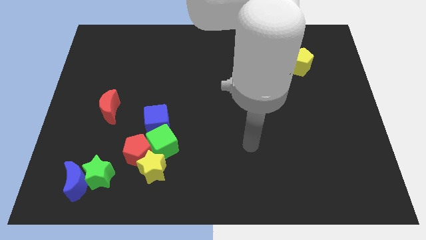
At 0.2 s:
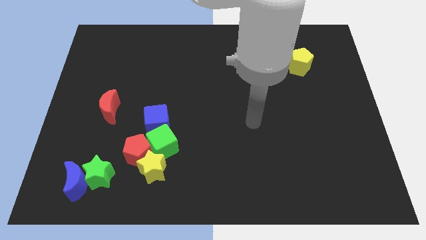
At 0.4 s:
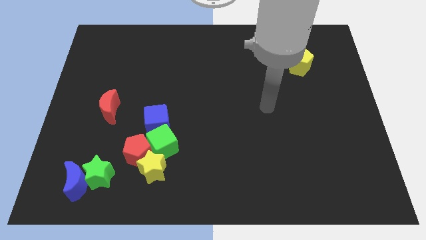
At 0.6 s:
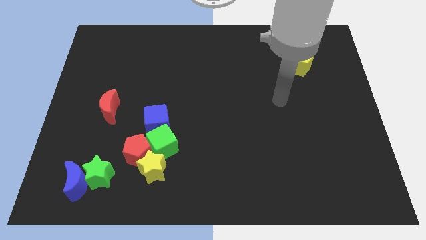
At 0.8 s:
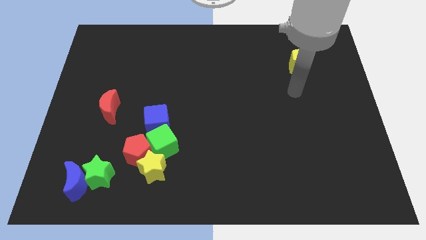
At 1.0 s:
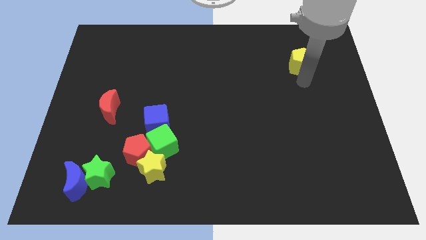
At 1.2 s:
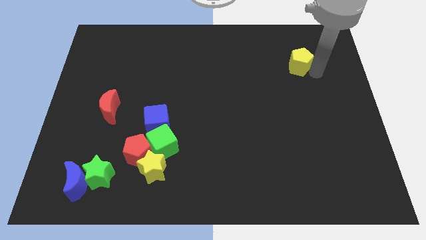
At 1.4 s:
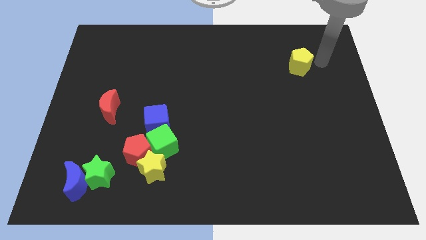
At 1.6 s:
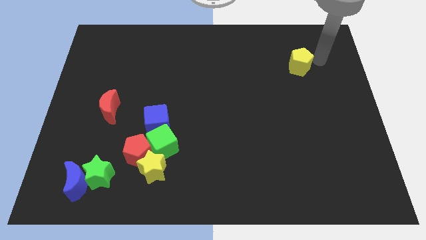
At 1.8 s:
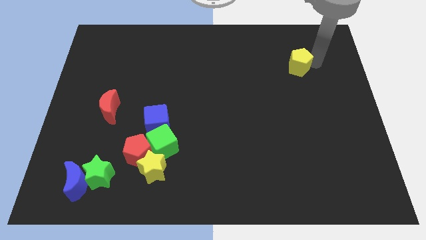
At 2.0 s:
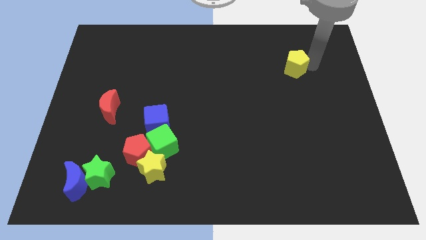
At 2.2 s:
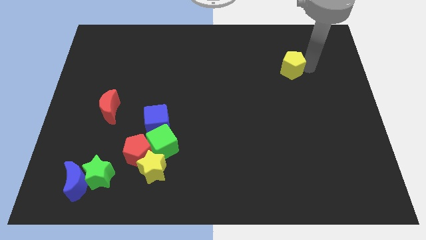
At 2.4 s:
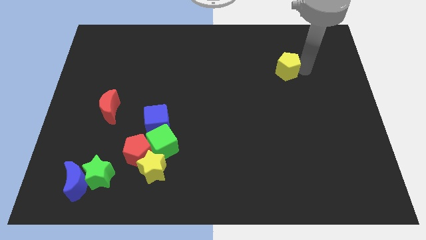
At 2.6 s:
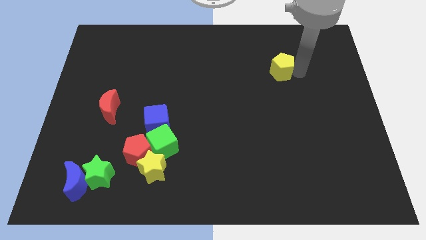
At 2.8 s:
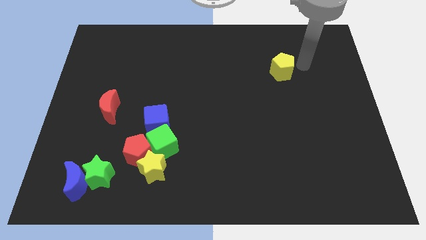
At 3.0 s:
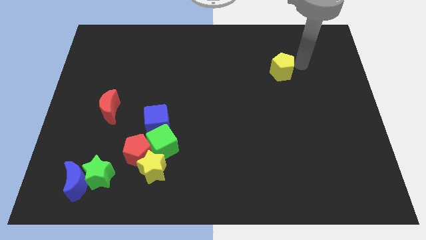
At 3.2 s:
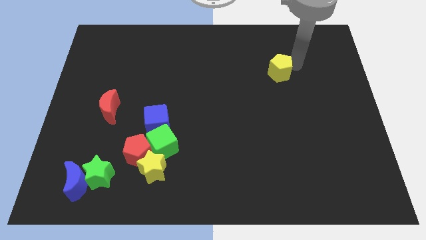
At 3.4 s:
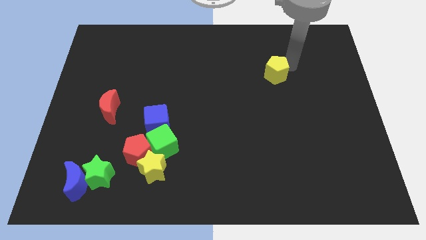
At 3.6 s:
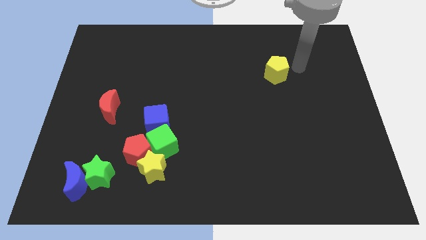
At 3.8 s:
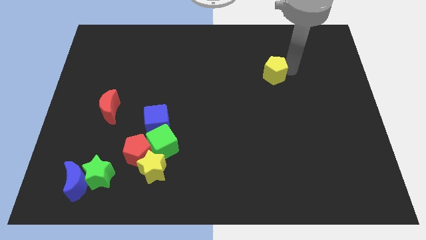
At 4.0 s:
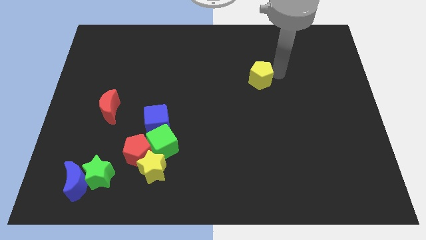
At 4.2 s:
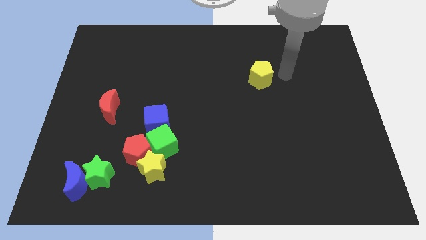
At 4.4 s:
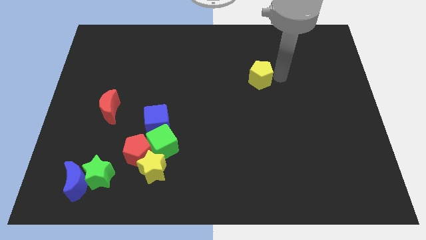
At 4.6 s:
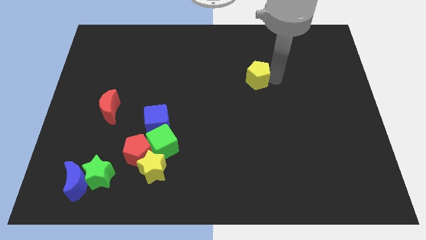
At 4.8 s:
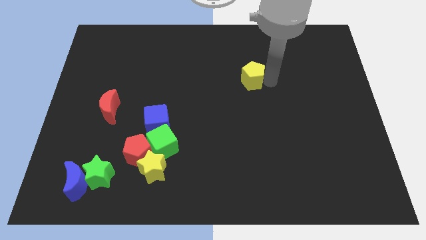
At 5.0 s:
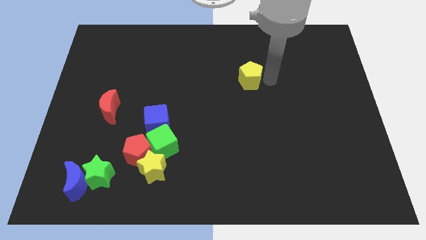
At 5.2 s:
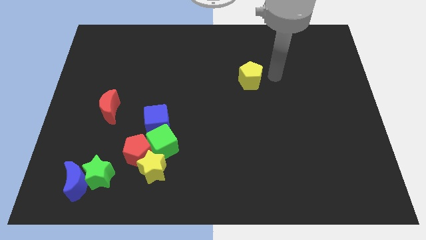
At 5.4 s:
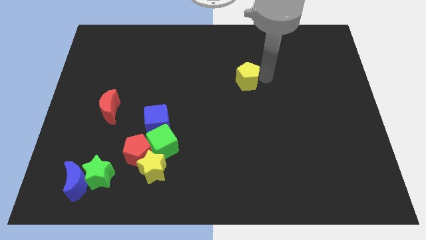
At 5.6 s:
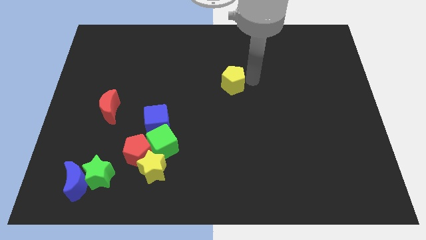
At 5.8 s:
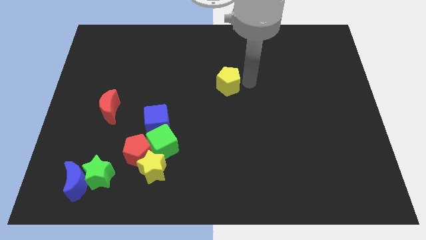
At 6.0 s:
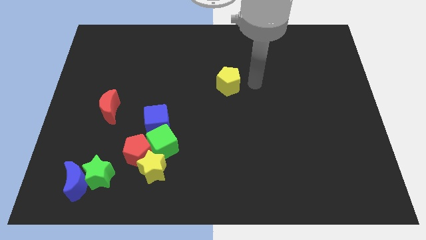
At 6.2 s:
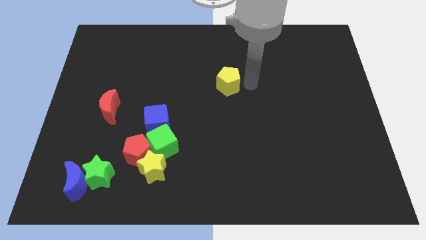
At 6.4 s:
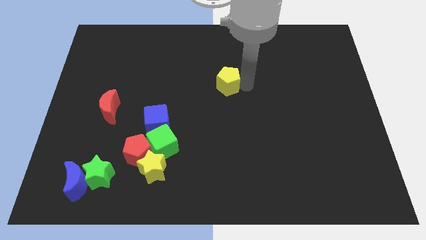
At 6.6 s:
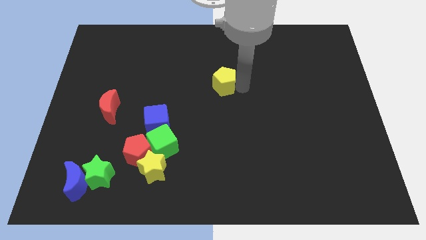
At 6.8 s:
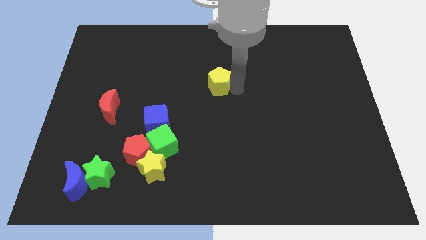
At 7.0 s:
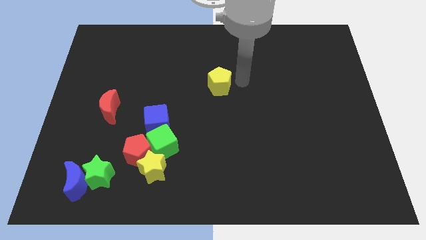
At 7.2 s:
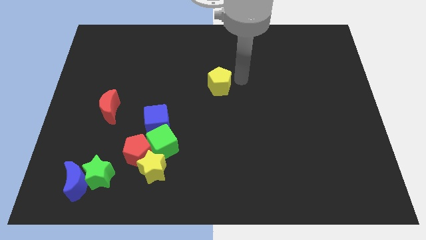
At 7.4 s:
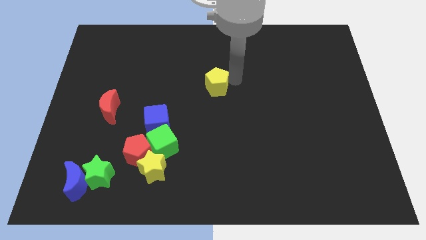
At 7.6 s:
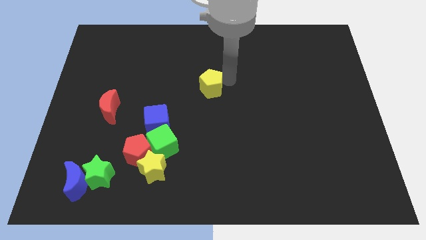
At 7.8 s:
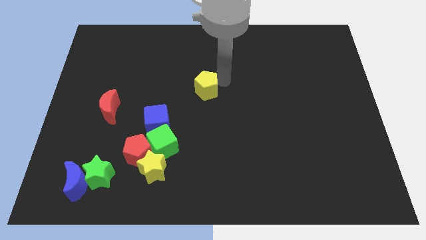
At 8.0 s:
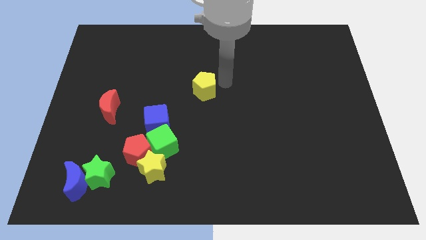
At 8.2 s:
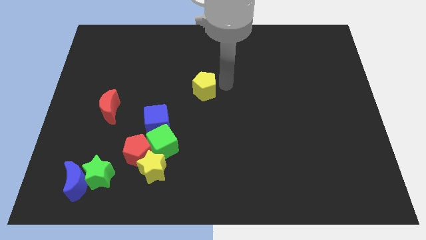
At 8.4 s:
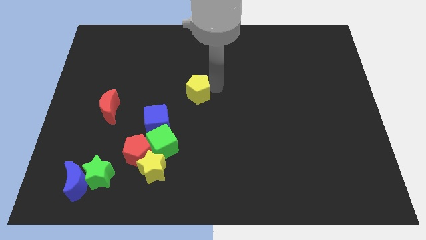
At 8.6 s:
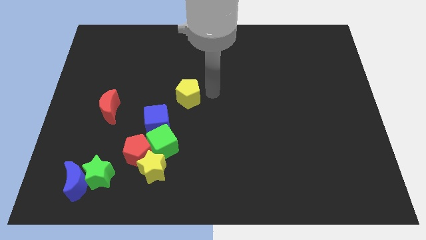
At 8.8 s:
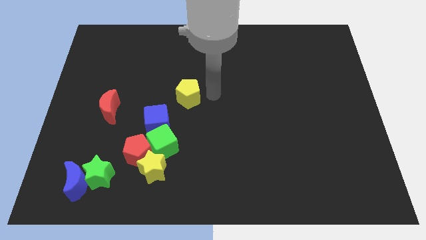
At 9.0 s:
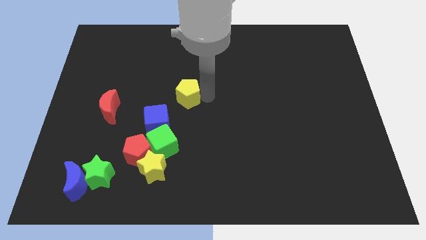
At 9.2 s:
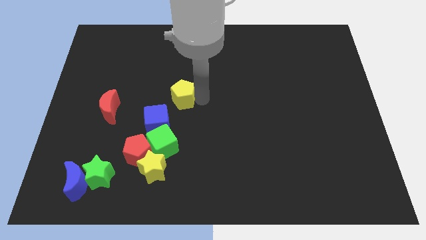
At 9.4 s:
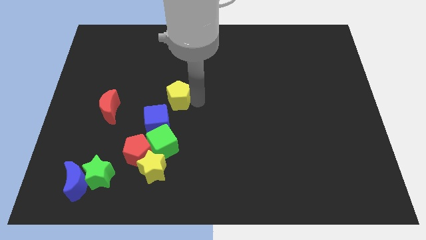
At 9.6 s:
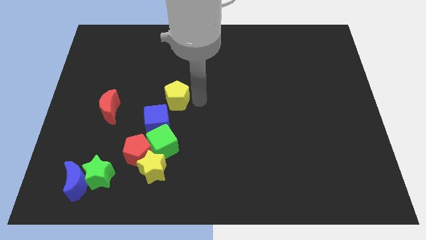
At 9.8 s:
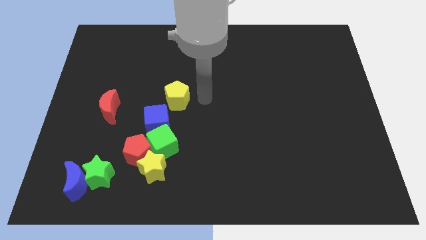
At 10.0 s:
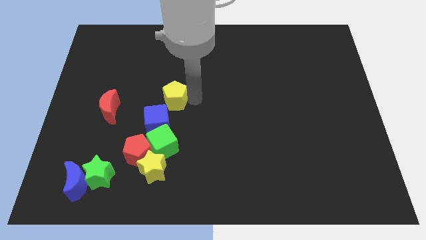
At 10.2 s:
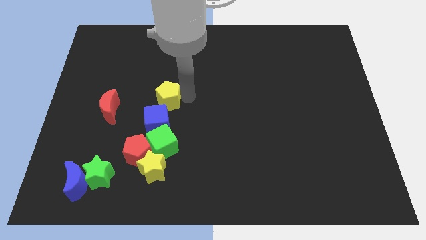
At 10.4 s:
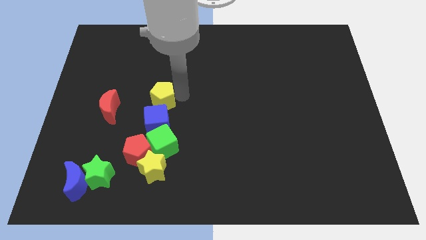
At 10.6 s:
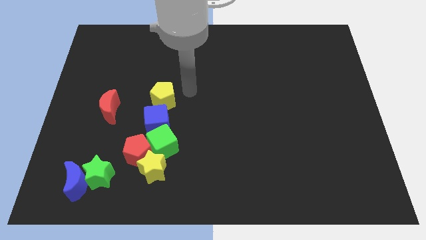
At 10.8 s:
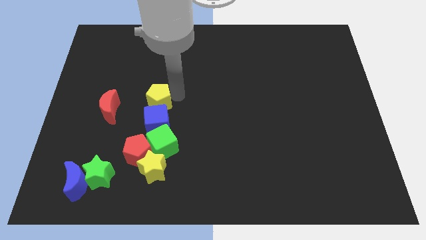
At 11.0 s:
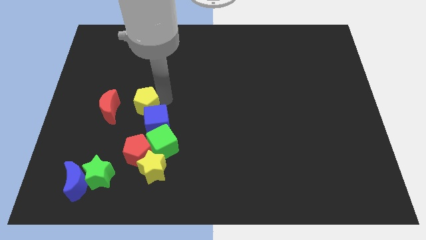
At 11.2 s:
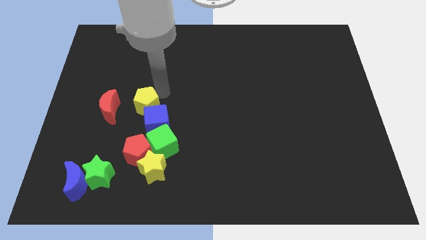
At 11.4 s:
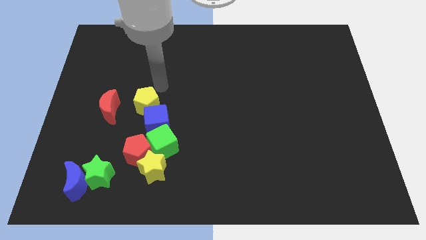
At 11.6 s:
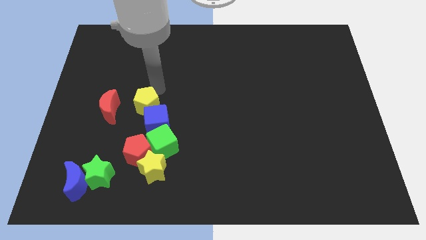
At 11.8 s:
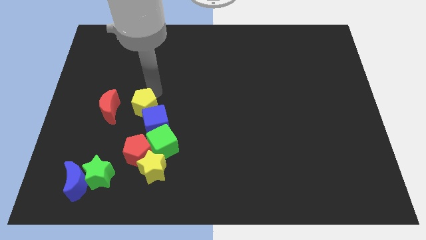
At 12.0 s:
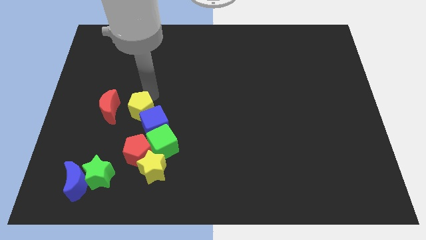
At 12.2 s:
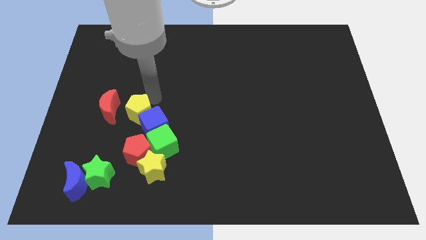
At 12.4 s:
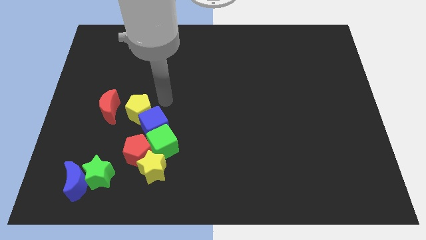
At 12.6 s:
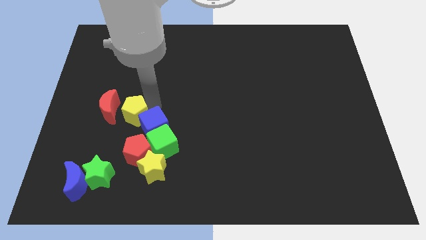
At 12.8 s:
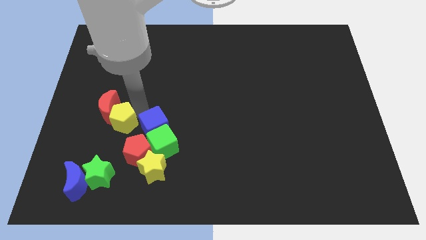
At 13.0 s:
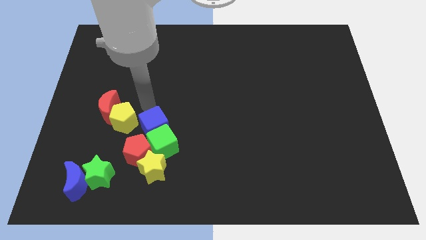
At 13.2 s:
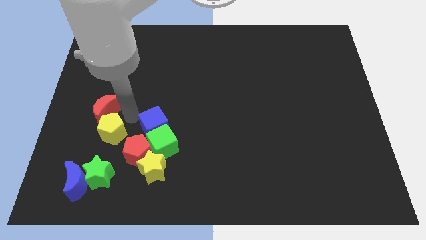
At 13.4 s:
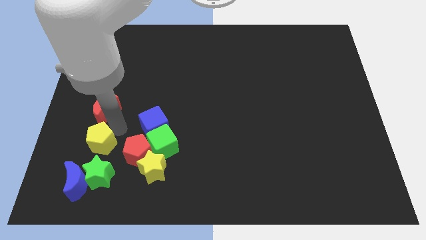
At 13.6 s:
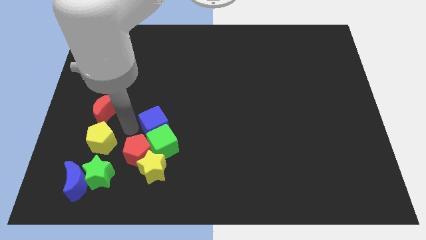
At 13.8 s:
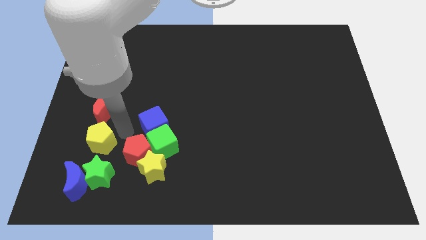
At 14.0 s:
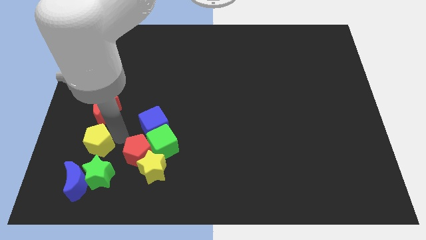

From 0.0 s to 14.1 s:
push the yellow pentagon to the top left of the green star

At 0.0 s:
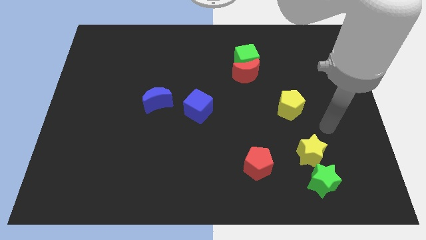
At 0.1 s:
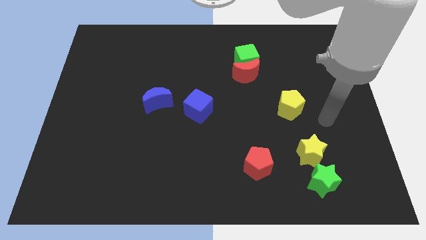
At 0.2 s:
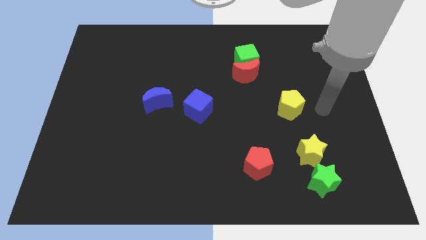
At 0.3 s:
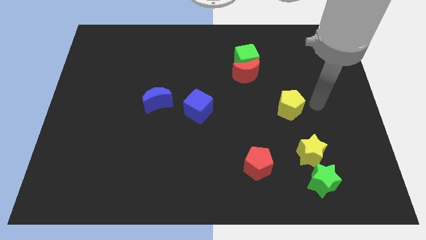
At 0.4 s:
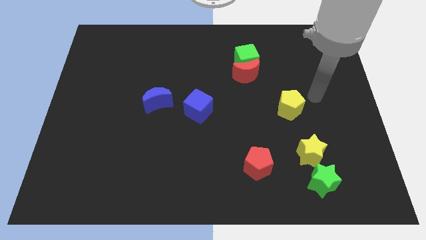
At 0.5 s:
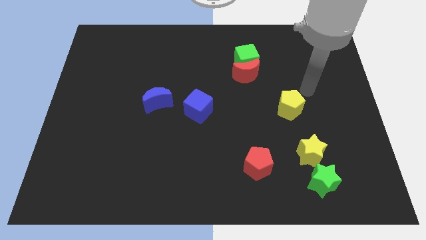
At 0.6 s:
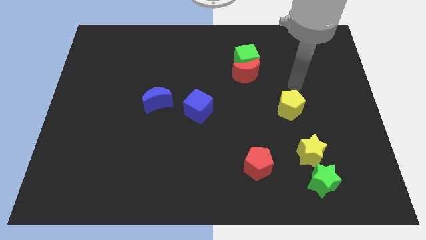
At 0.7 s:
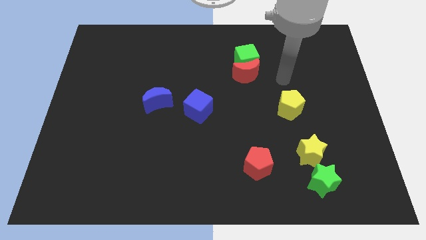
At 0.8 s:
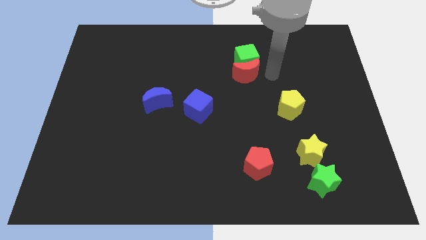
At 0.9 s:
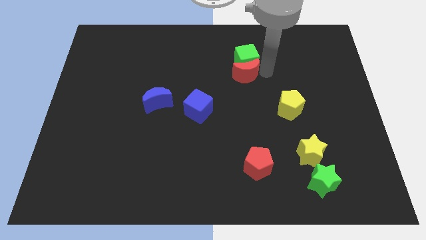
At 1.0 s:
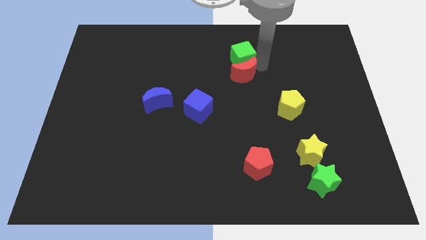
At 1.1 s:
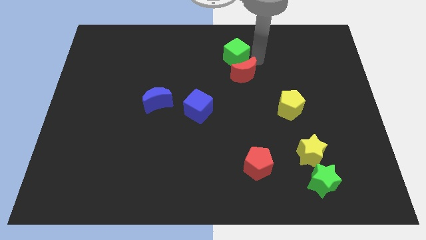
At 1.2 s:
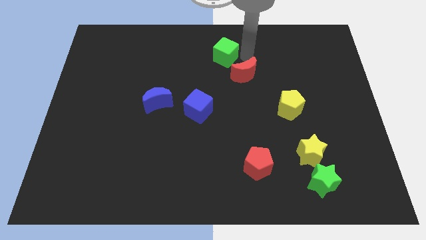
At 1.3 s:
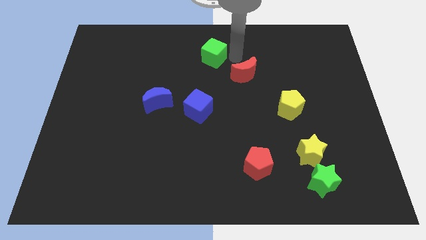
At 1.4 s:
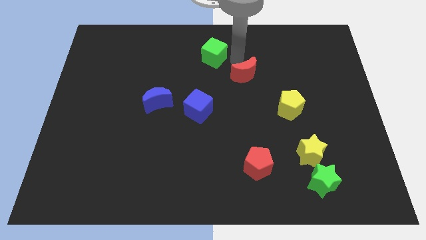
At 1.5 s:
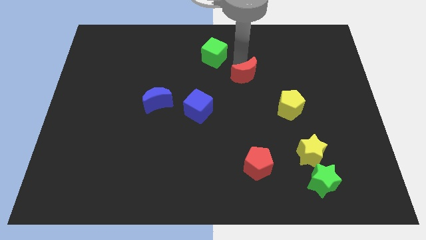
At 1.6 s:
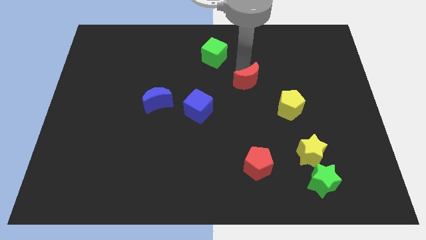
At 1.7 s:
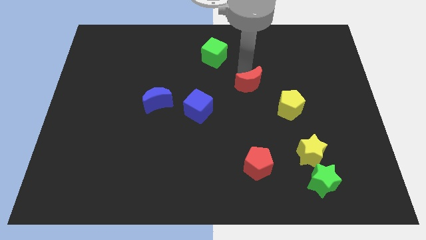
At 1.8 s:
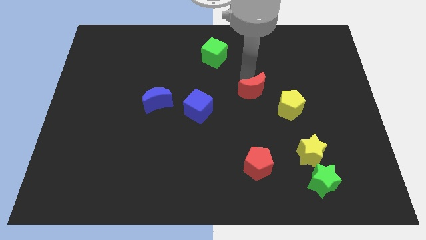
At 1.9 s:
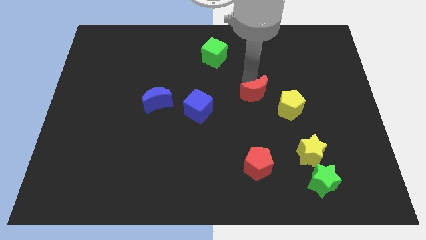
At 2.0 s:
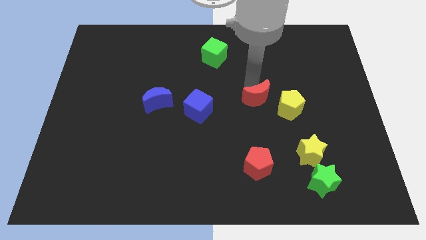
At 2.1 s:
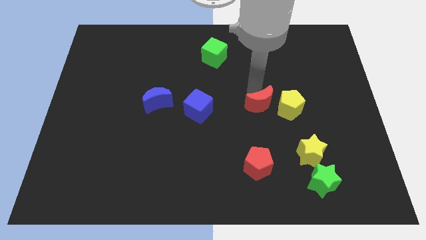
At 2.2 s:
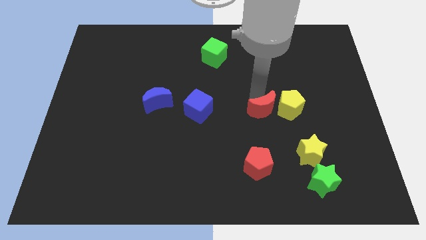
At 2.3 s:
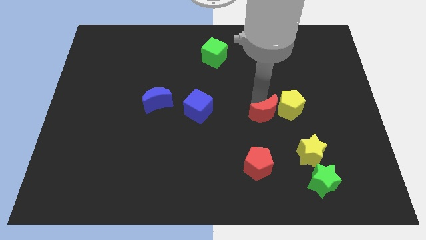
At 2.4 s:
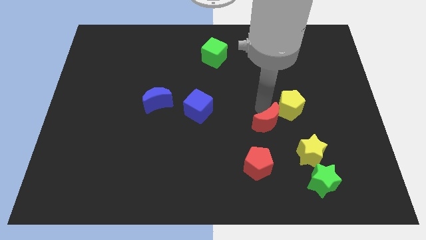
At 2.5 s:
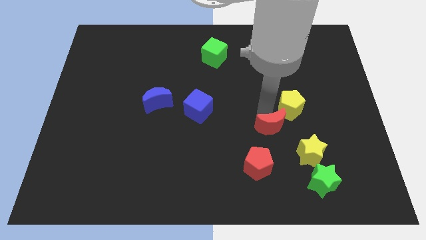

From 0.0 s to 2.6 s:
push the red moon to the top right of the red pentagon
